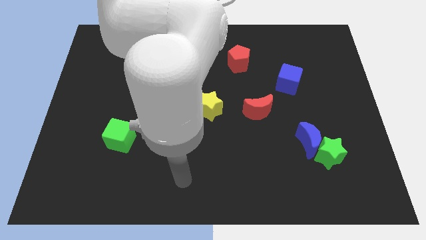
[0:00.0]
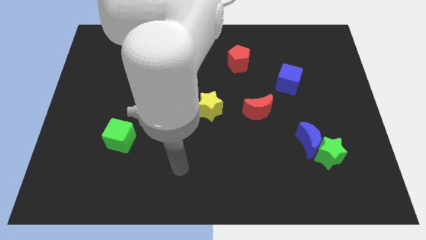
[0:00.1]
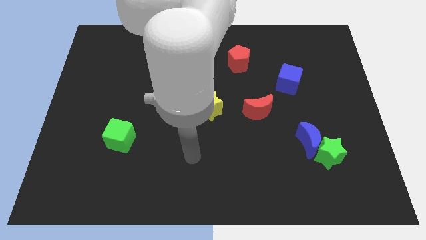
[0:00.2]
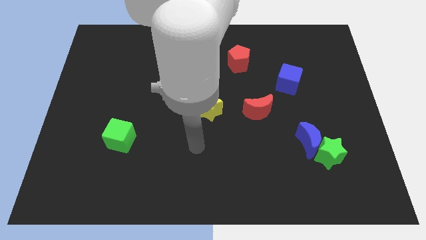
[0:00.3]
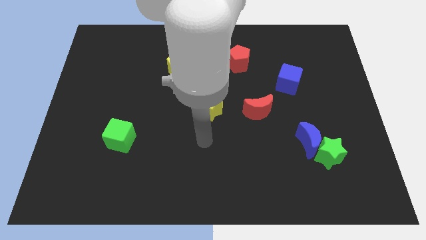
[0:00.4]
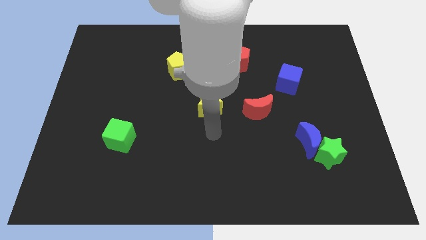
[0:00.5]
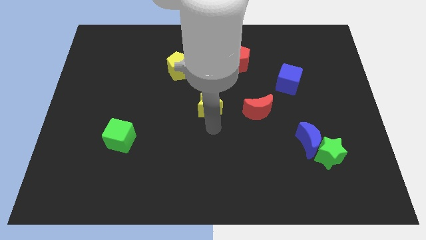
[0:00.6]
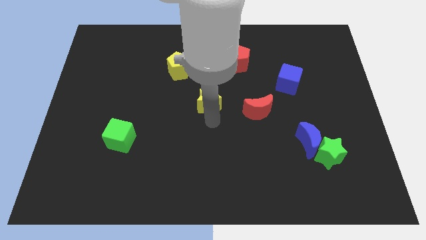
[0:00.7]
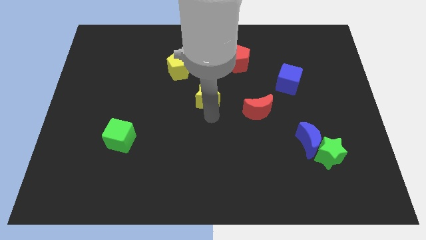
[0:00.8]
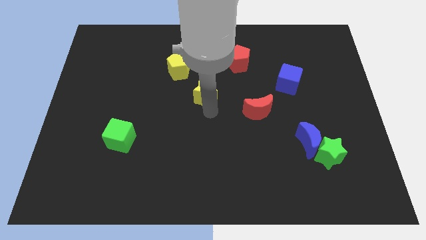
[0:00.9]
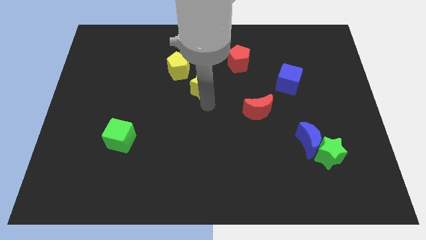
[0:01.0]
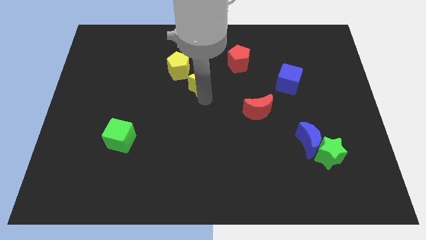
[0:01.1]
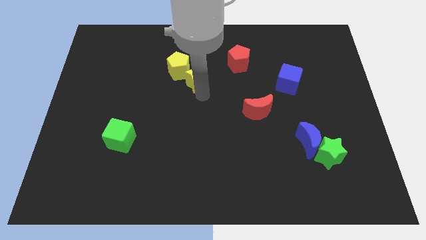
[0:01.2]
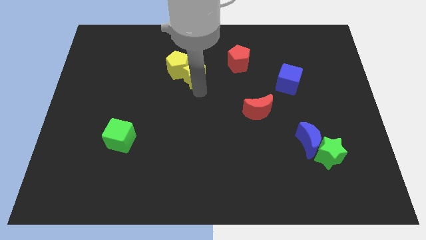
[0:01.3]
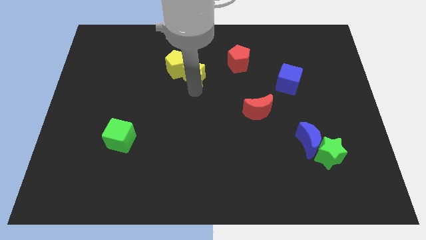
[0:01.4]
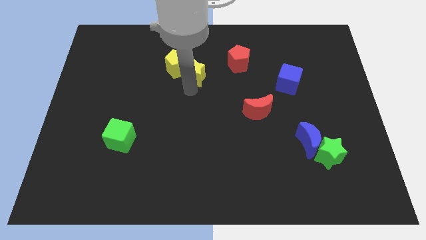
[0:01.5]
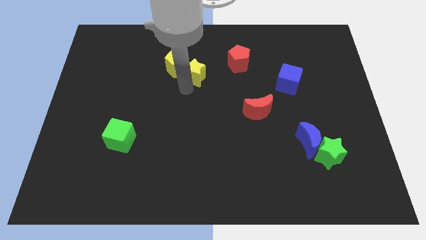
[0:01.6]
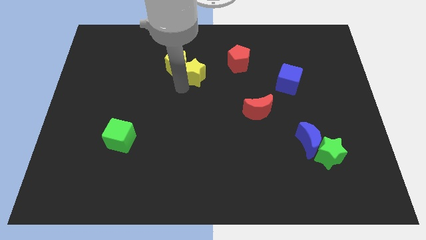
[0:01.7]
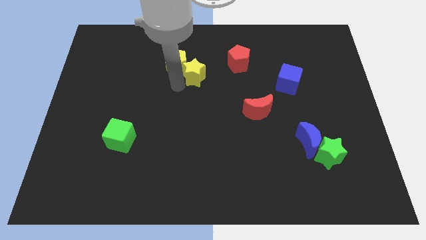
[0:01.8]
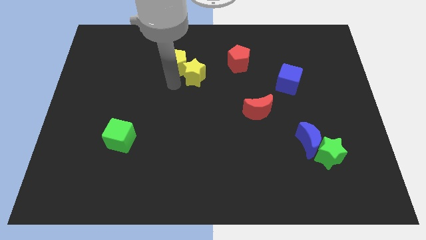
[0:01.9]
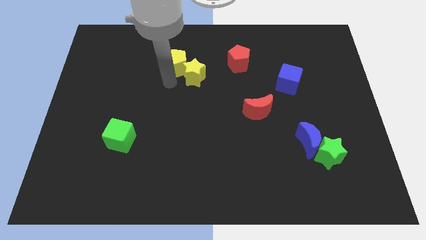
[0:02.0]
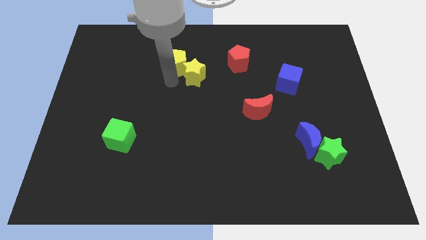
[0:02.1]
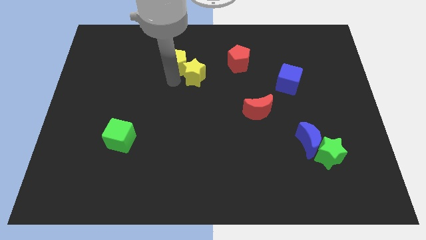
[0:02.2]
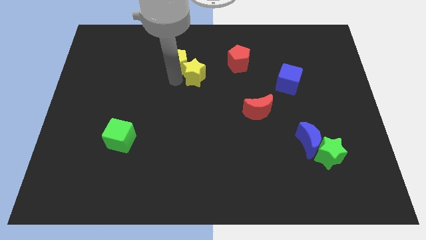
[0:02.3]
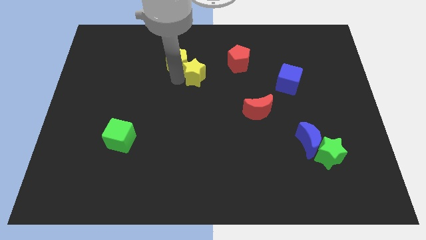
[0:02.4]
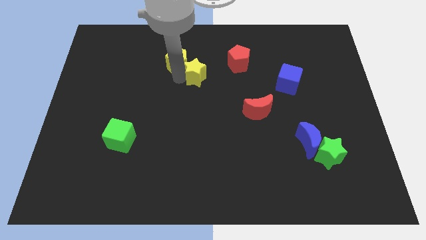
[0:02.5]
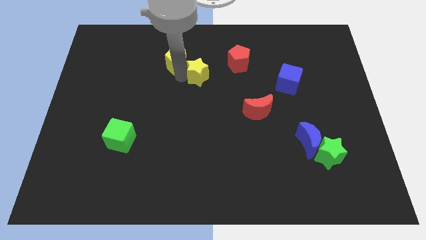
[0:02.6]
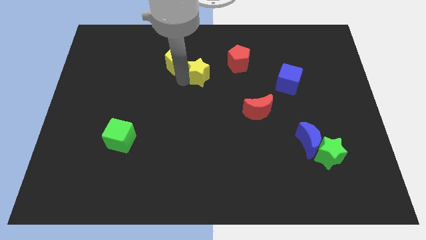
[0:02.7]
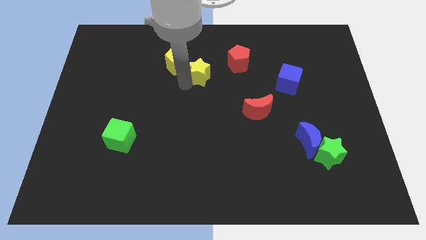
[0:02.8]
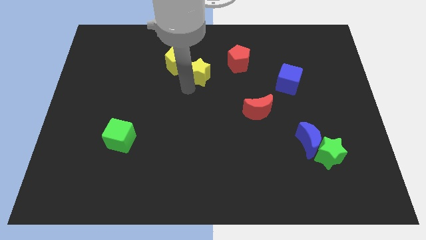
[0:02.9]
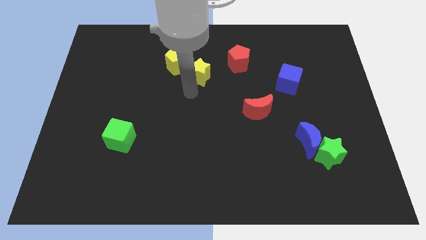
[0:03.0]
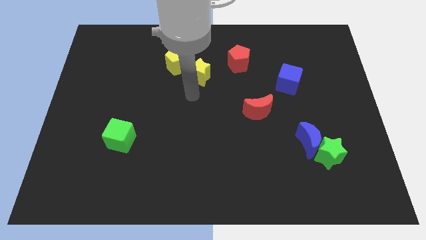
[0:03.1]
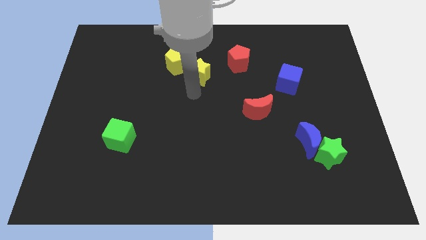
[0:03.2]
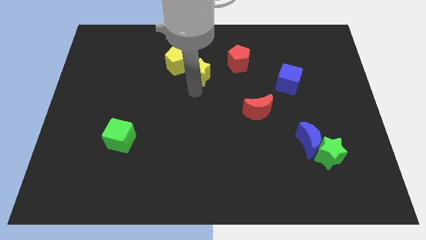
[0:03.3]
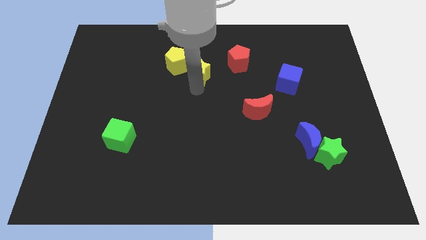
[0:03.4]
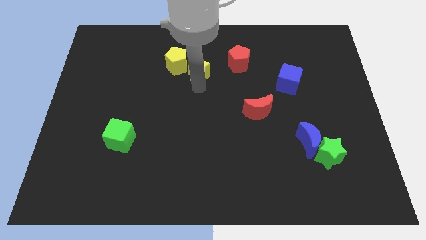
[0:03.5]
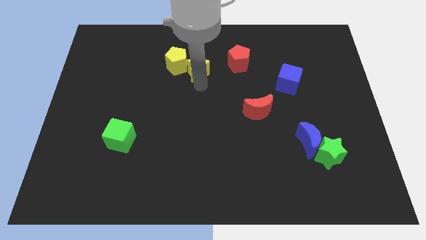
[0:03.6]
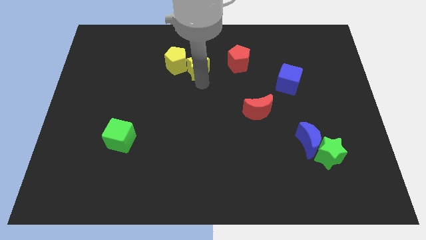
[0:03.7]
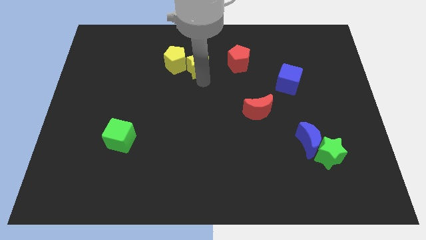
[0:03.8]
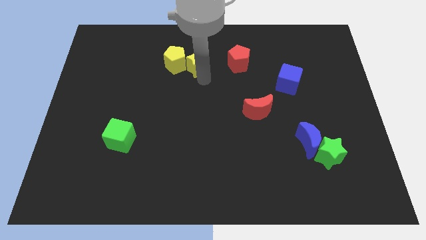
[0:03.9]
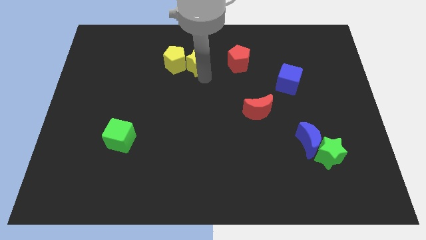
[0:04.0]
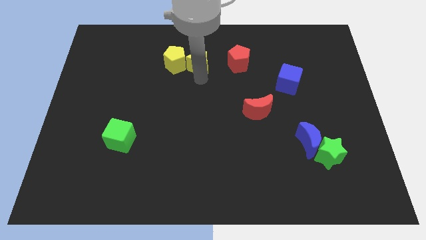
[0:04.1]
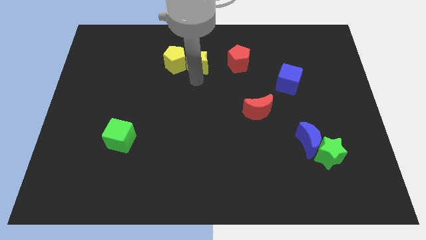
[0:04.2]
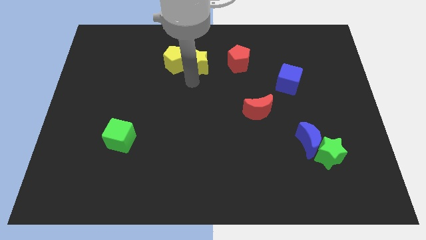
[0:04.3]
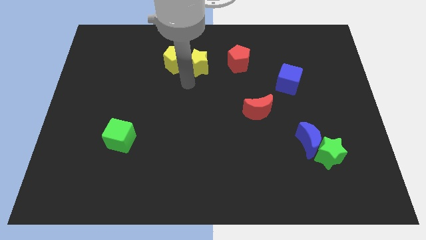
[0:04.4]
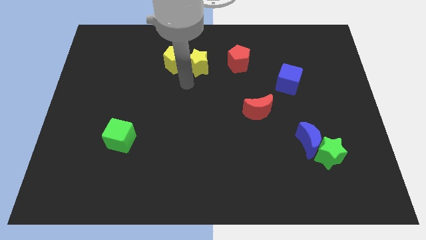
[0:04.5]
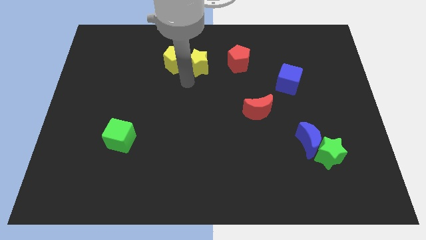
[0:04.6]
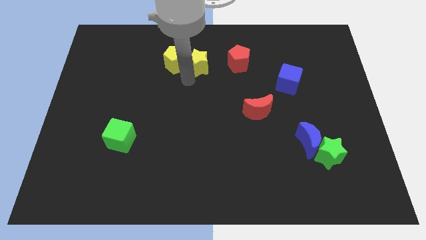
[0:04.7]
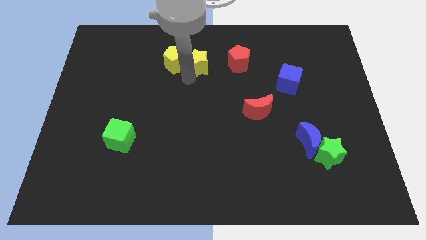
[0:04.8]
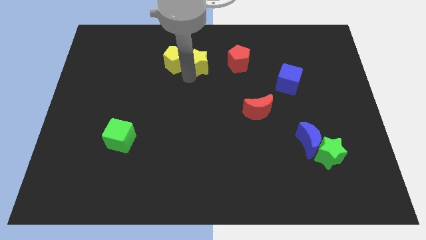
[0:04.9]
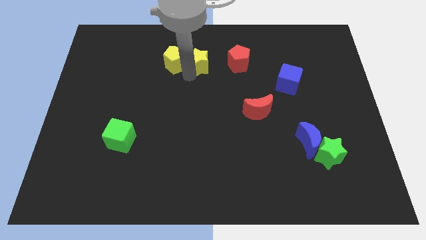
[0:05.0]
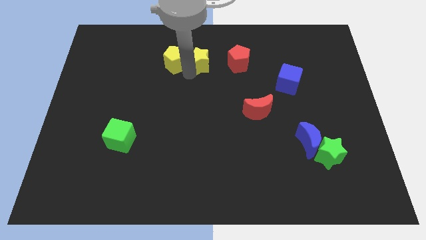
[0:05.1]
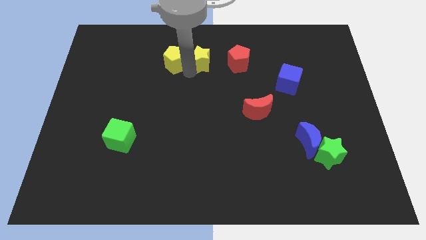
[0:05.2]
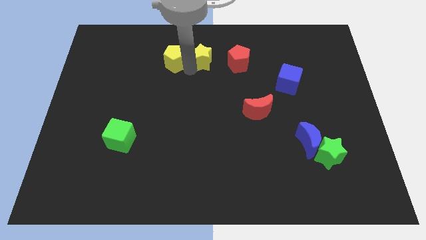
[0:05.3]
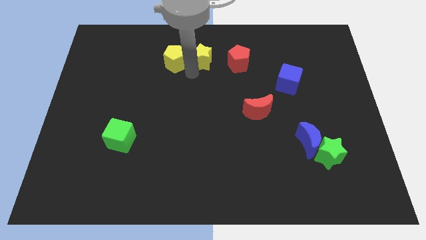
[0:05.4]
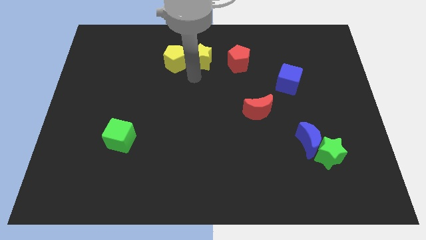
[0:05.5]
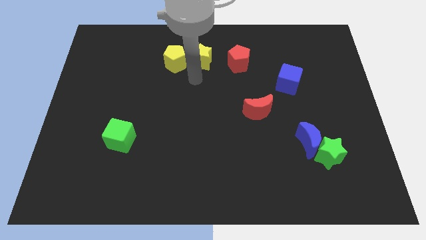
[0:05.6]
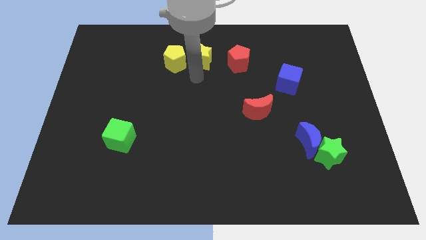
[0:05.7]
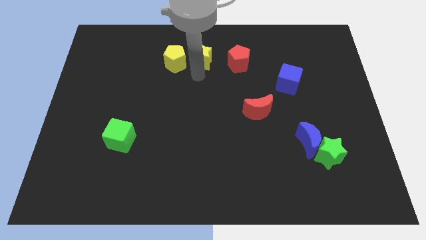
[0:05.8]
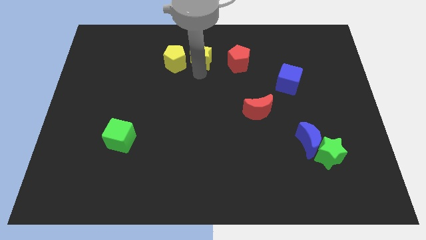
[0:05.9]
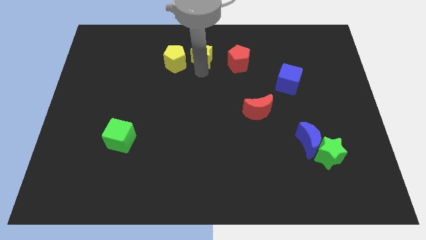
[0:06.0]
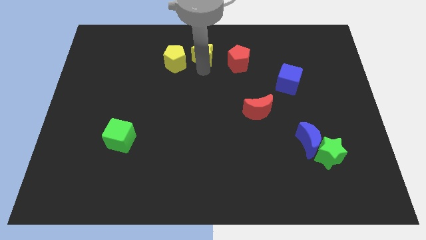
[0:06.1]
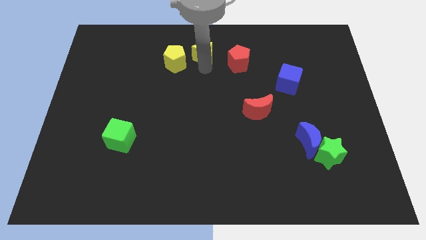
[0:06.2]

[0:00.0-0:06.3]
push the yellow star to the towards your base
